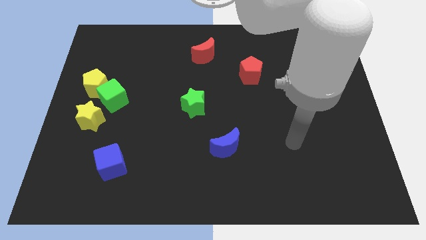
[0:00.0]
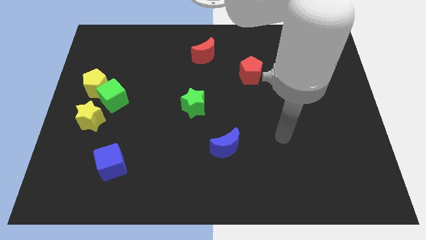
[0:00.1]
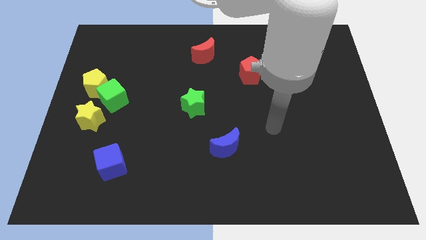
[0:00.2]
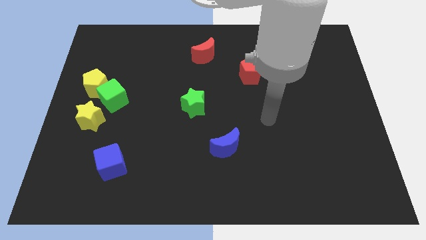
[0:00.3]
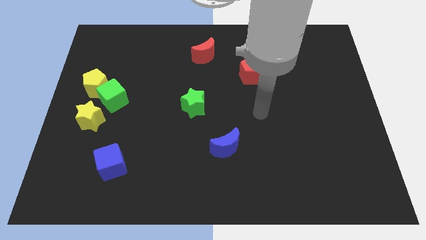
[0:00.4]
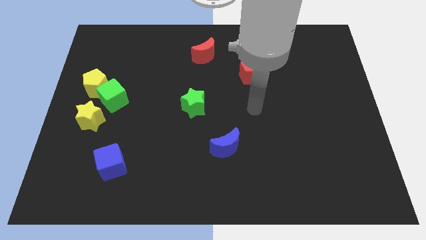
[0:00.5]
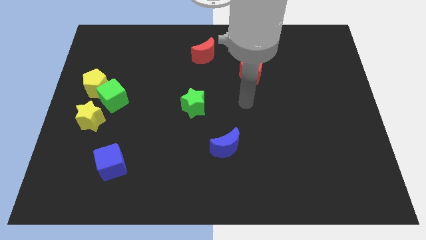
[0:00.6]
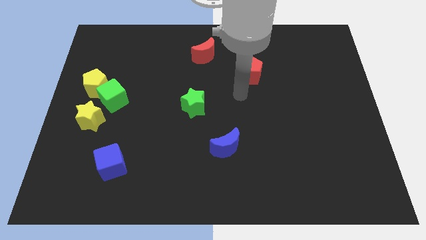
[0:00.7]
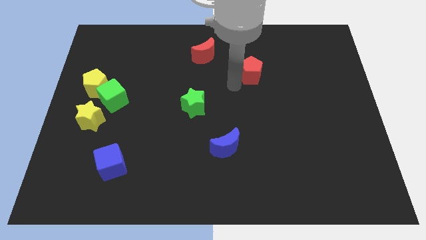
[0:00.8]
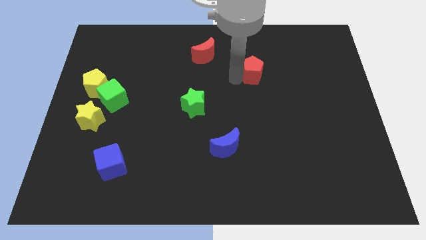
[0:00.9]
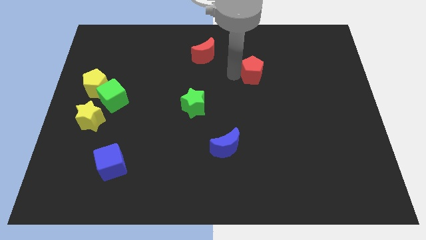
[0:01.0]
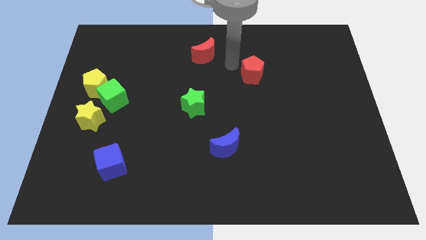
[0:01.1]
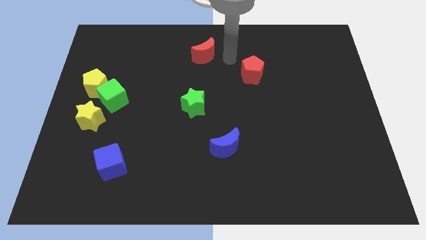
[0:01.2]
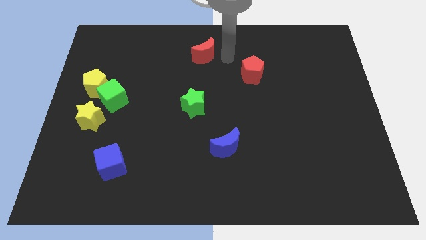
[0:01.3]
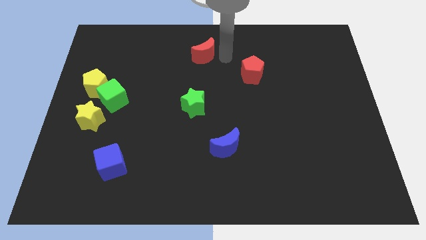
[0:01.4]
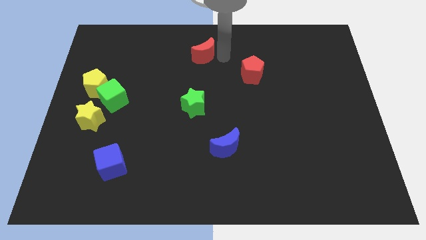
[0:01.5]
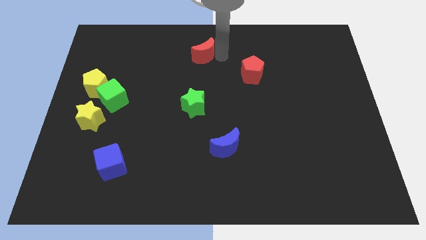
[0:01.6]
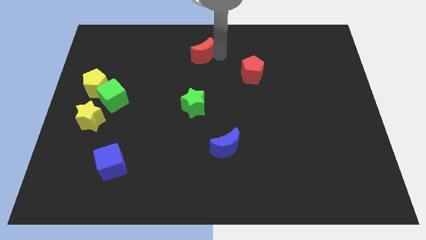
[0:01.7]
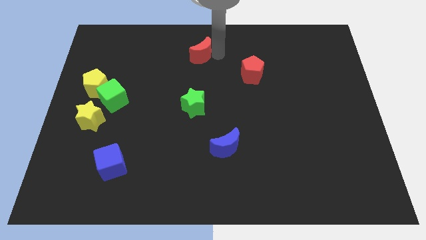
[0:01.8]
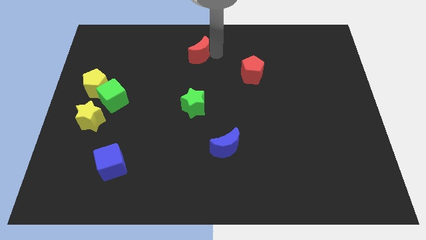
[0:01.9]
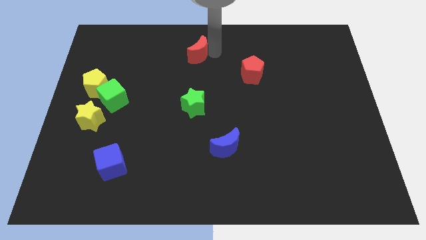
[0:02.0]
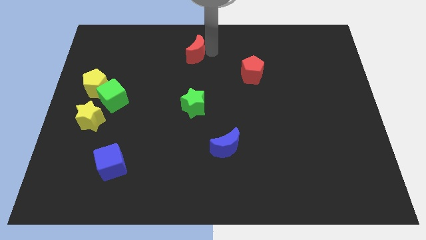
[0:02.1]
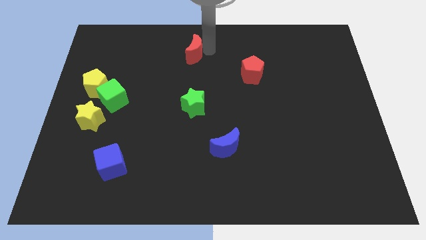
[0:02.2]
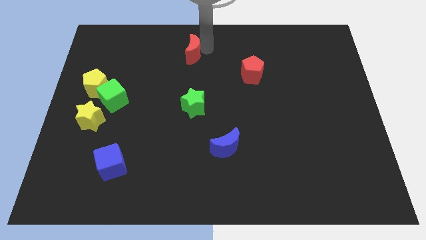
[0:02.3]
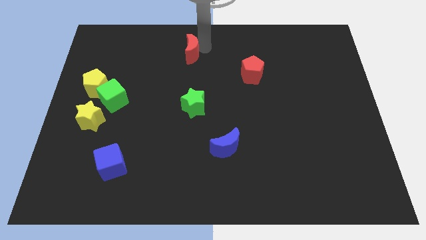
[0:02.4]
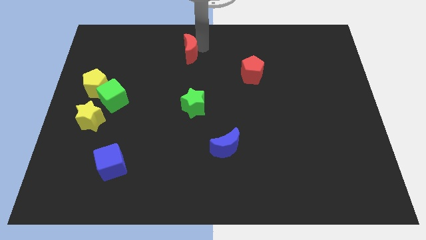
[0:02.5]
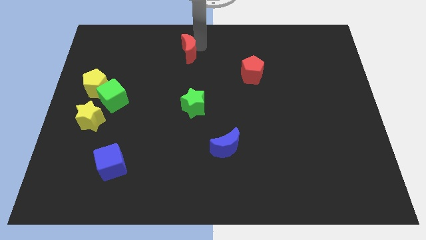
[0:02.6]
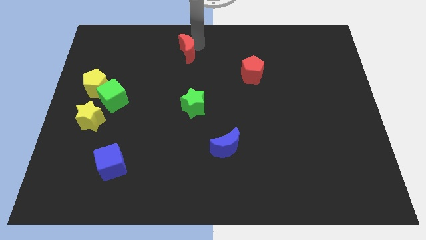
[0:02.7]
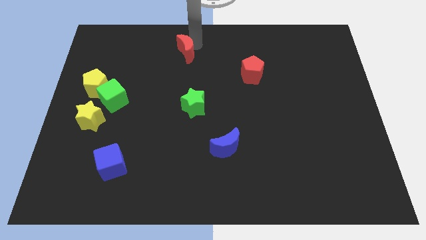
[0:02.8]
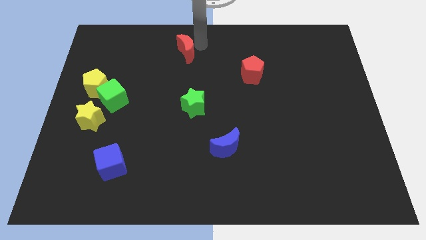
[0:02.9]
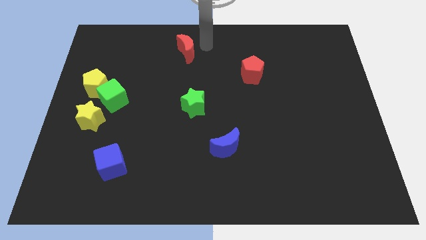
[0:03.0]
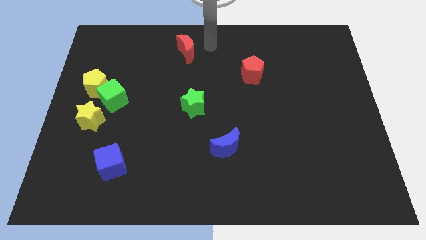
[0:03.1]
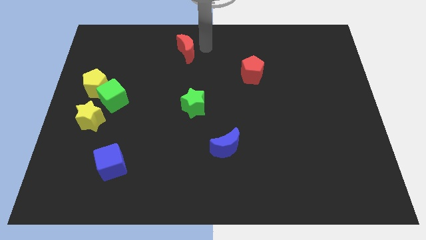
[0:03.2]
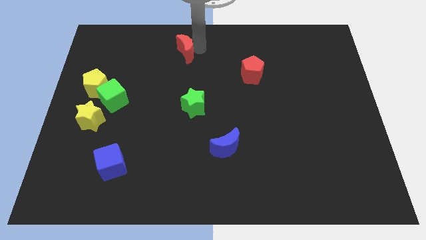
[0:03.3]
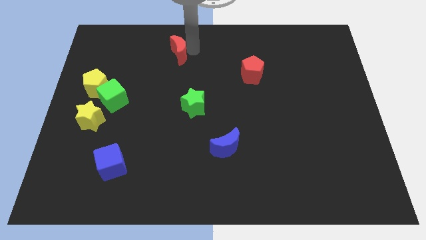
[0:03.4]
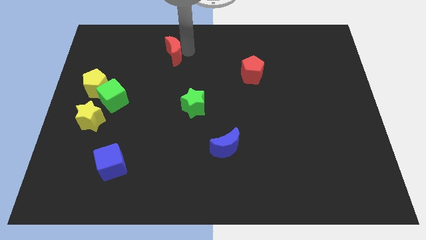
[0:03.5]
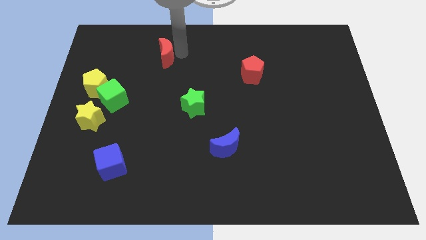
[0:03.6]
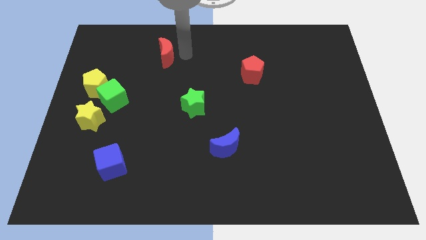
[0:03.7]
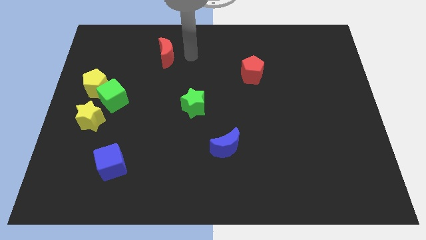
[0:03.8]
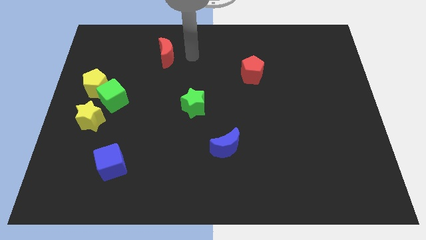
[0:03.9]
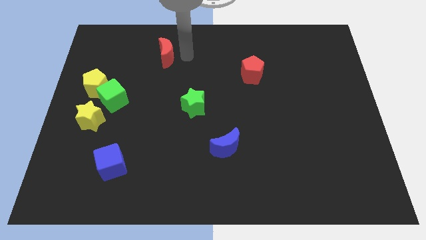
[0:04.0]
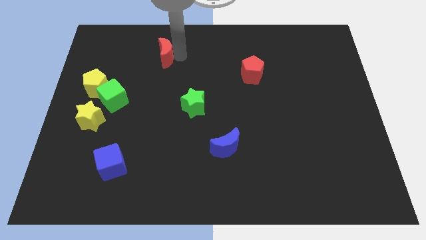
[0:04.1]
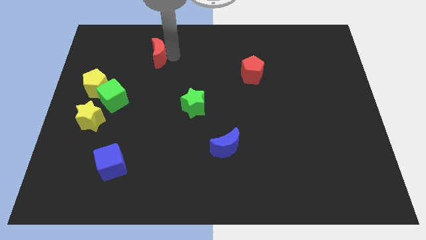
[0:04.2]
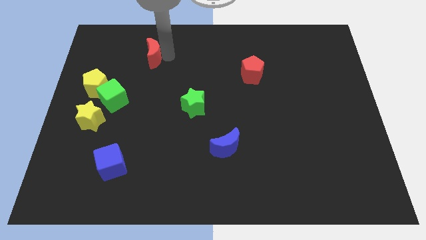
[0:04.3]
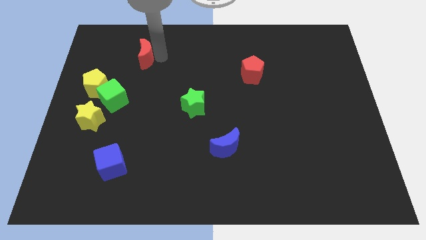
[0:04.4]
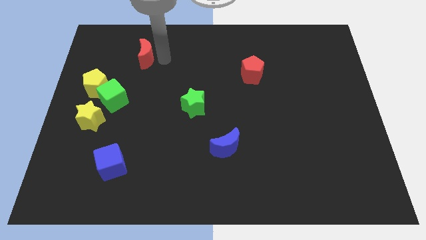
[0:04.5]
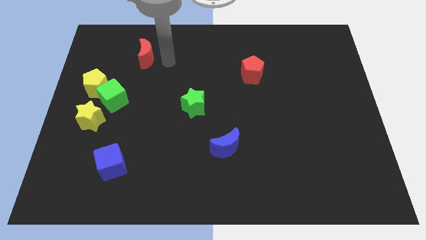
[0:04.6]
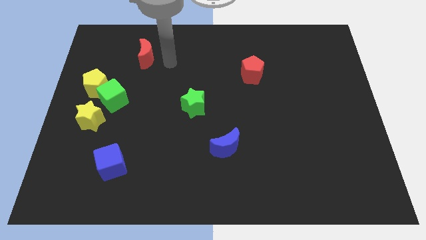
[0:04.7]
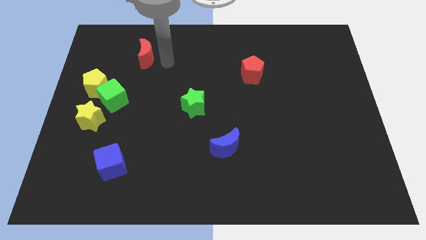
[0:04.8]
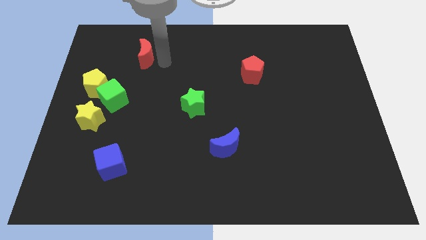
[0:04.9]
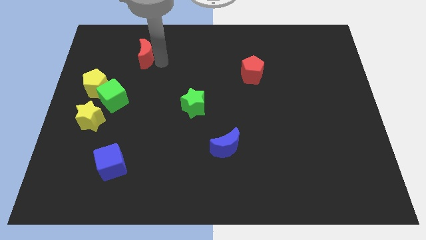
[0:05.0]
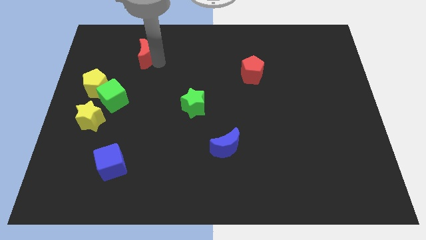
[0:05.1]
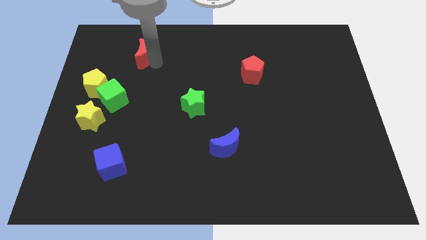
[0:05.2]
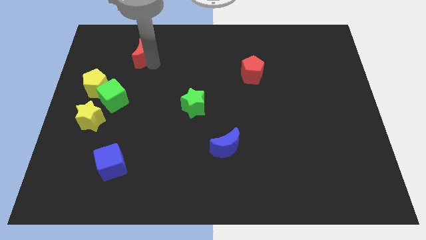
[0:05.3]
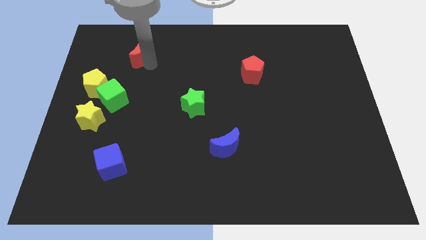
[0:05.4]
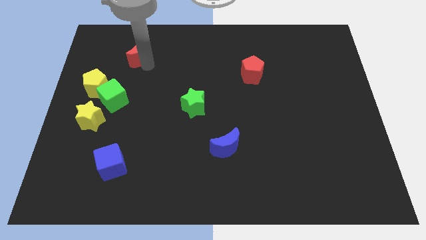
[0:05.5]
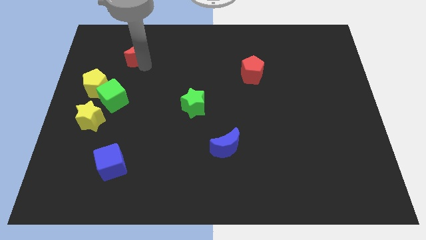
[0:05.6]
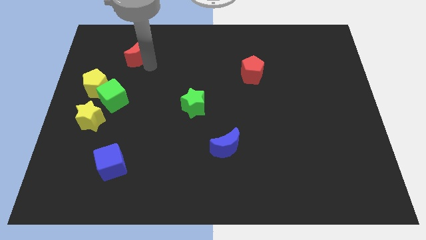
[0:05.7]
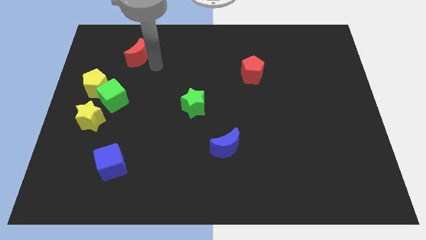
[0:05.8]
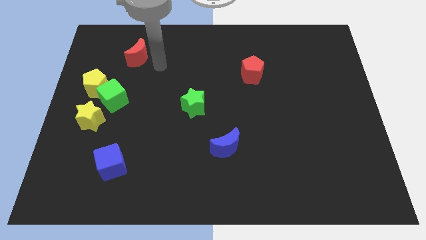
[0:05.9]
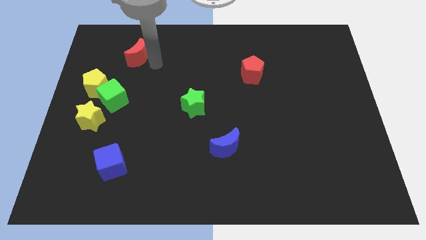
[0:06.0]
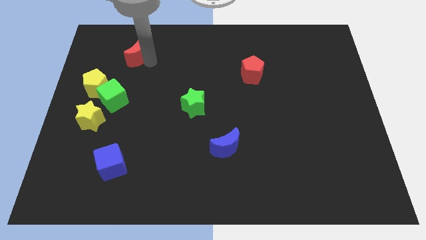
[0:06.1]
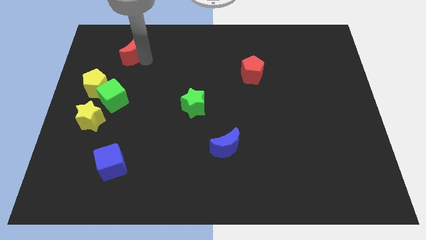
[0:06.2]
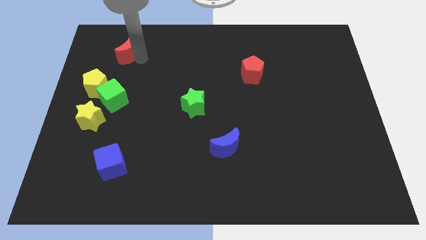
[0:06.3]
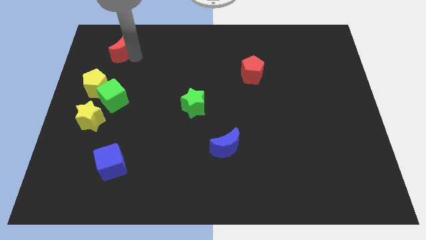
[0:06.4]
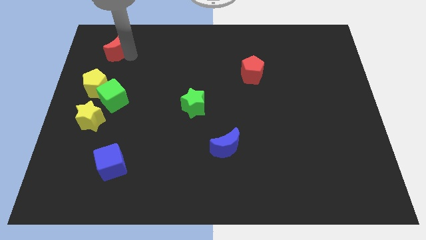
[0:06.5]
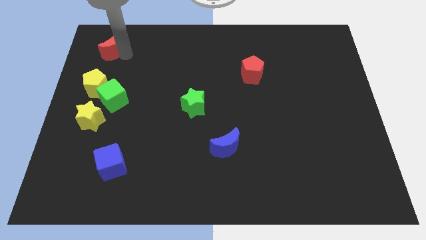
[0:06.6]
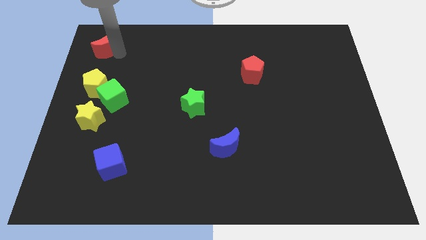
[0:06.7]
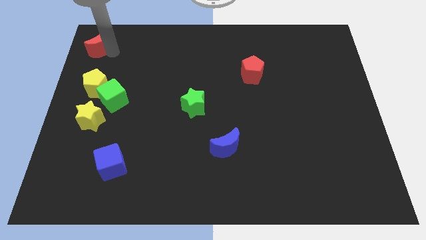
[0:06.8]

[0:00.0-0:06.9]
push the red moon to the upper left corner

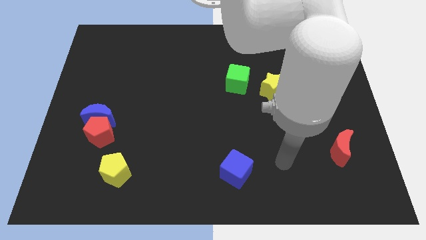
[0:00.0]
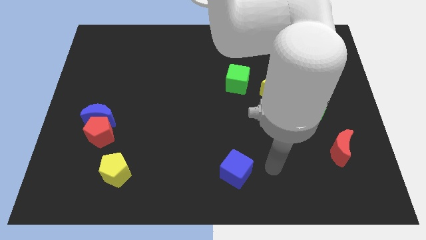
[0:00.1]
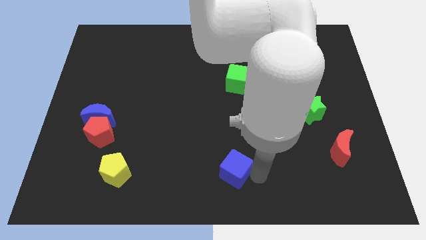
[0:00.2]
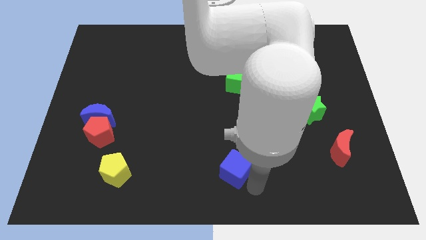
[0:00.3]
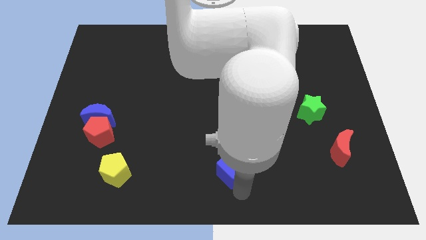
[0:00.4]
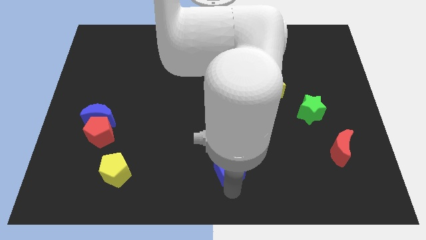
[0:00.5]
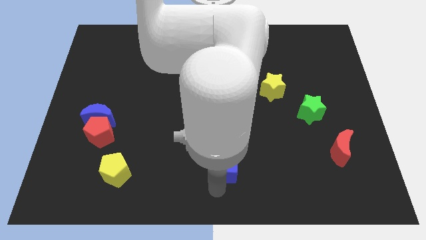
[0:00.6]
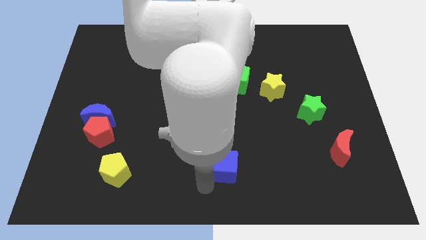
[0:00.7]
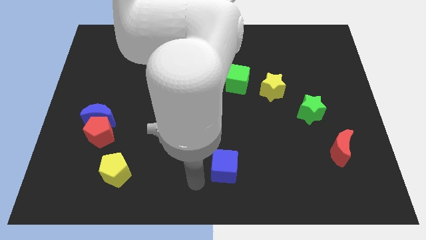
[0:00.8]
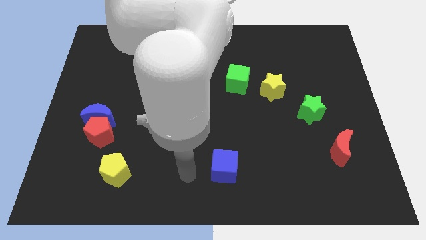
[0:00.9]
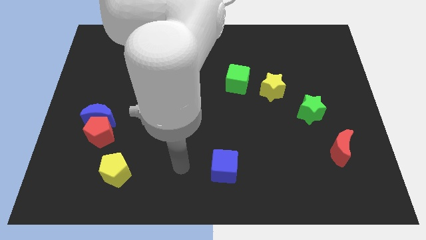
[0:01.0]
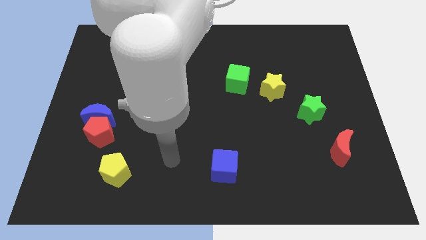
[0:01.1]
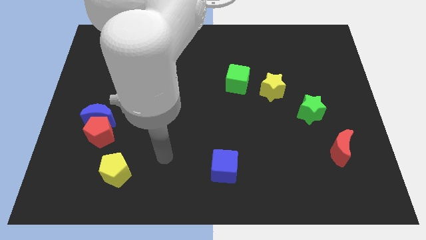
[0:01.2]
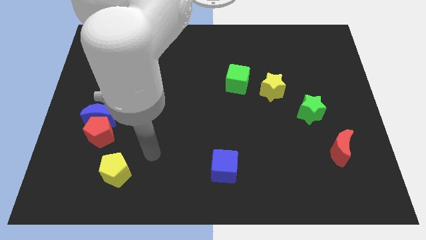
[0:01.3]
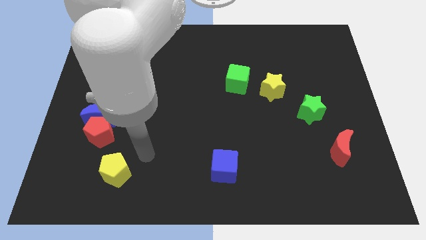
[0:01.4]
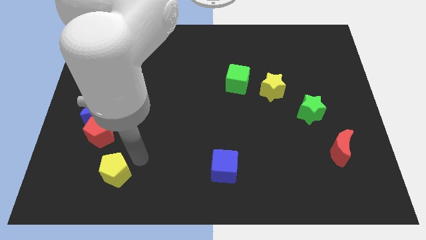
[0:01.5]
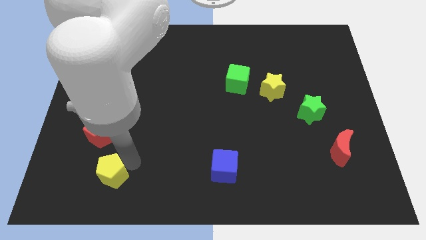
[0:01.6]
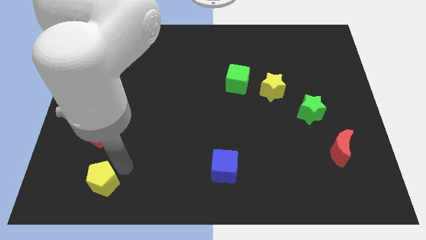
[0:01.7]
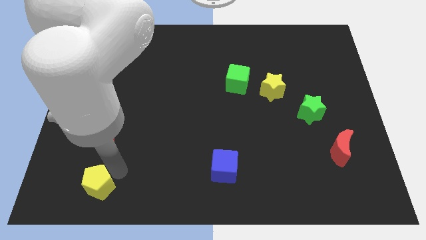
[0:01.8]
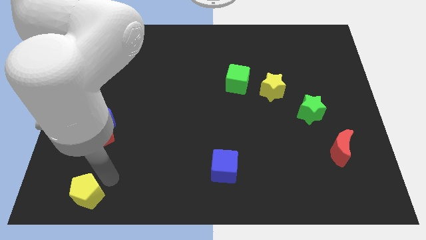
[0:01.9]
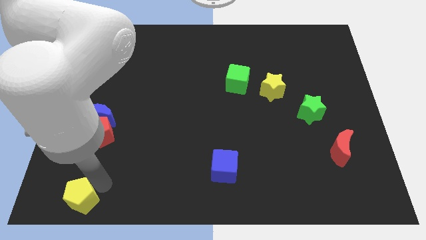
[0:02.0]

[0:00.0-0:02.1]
push the yellow pentagon to the bottom left of the board
